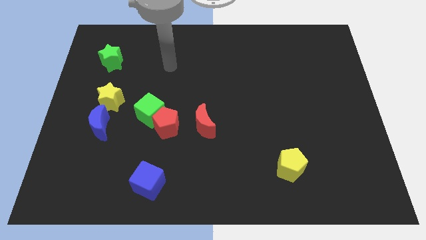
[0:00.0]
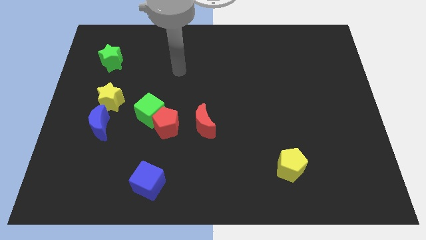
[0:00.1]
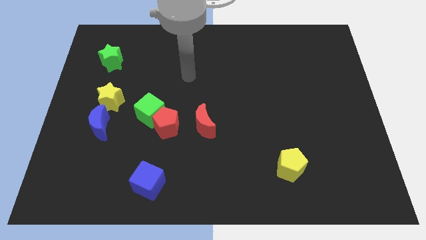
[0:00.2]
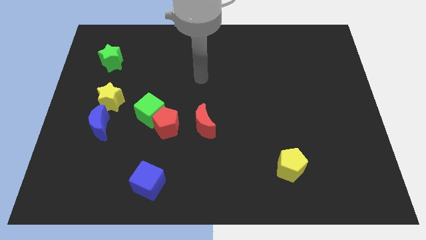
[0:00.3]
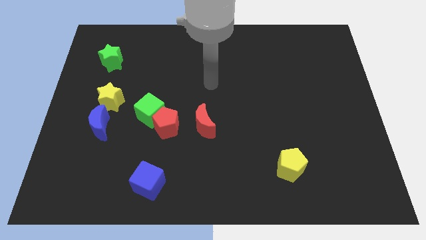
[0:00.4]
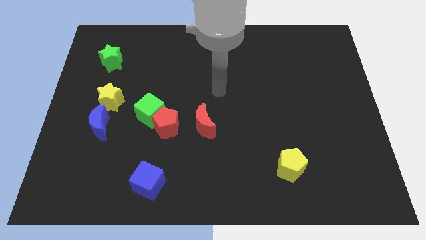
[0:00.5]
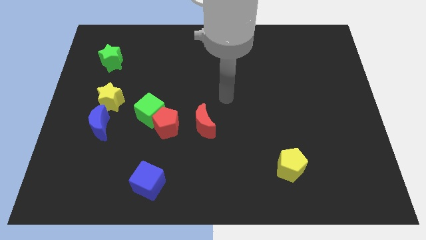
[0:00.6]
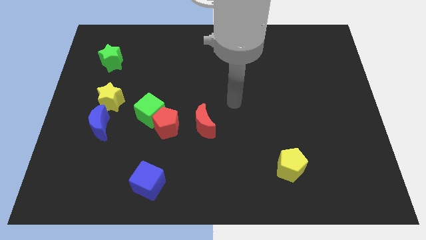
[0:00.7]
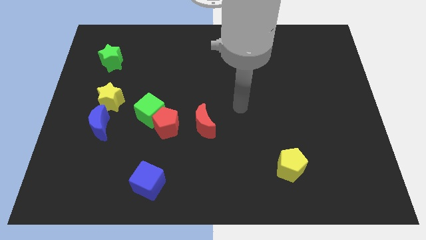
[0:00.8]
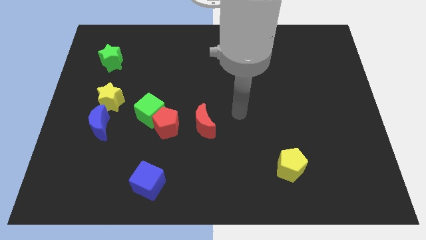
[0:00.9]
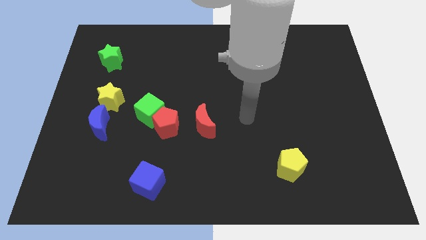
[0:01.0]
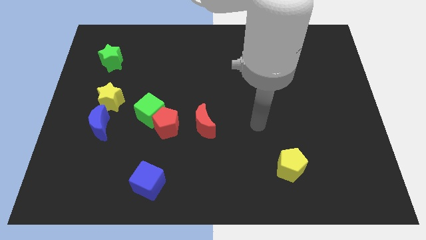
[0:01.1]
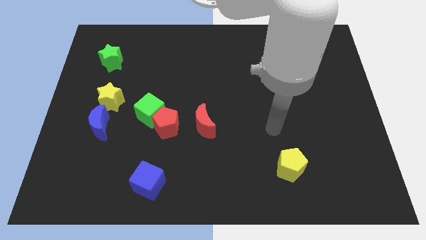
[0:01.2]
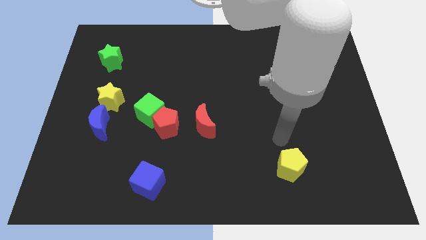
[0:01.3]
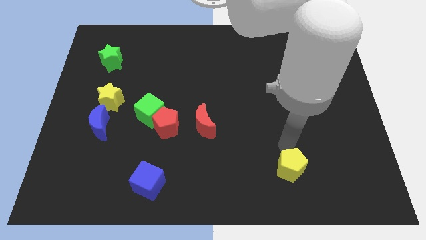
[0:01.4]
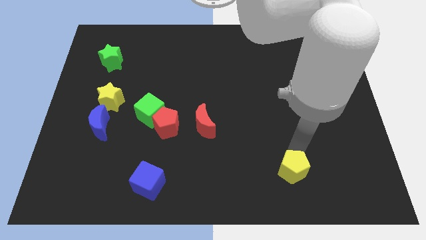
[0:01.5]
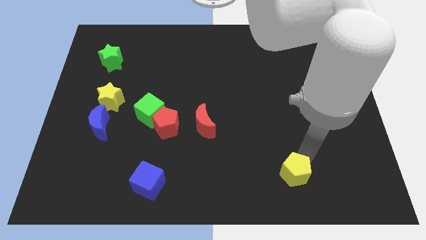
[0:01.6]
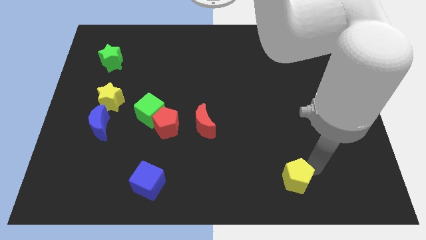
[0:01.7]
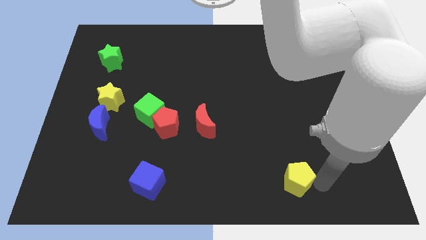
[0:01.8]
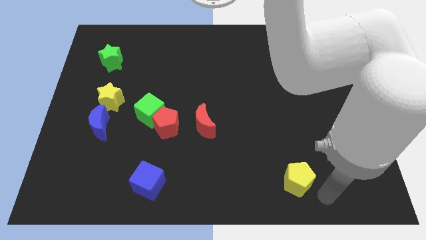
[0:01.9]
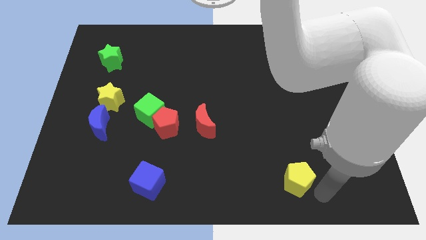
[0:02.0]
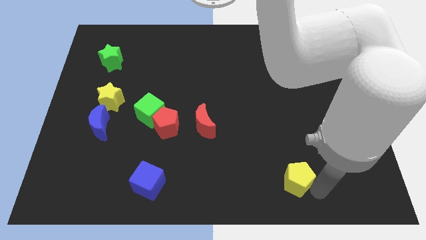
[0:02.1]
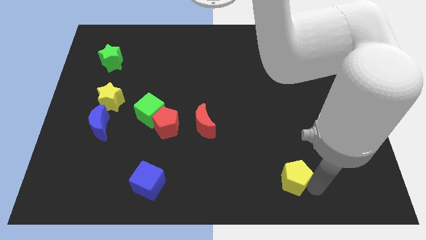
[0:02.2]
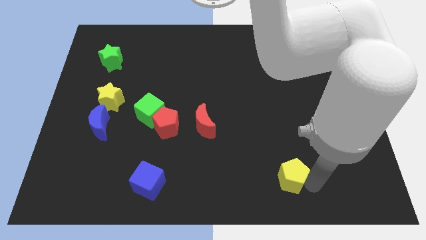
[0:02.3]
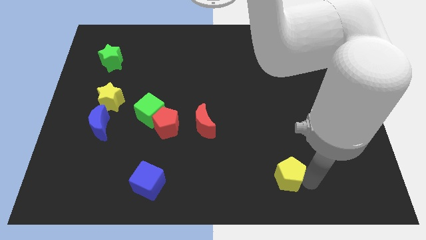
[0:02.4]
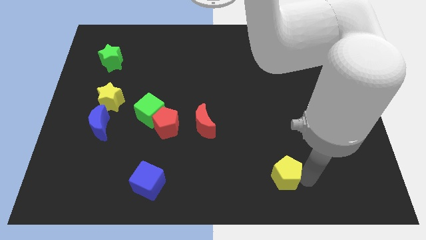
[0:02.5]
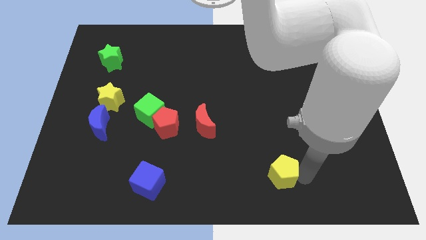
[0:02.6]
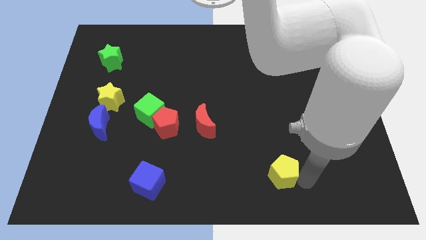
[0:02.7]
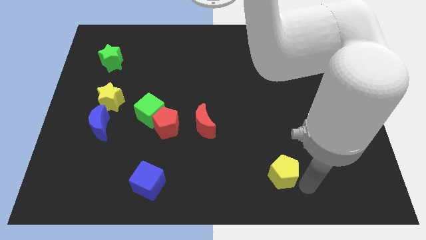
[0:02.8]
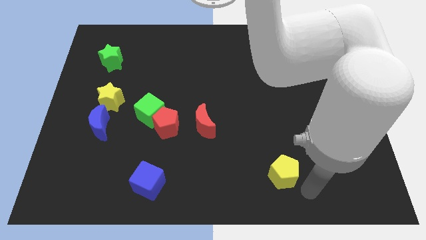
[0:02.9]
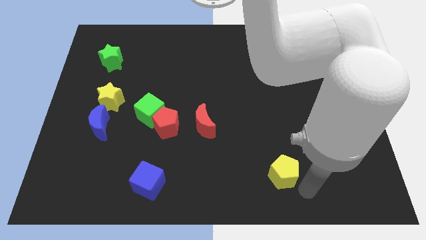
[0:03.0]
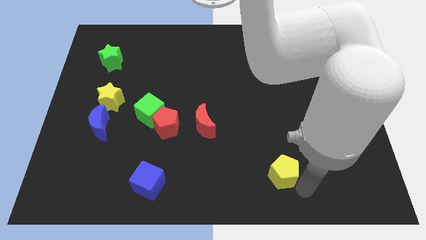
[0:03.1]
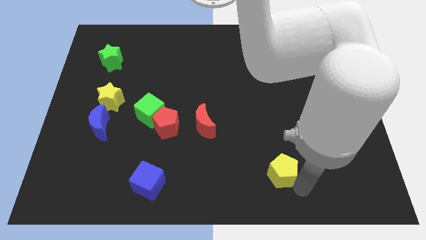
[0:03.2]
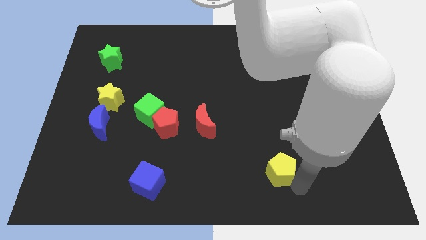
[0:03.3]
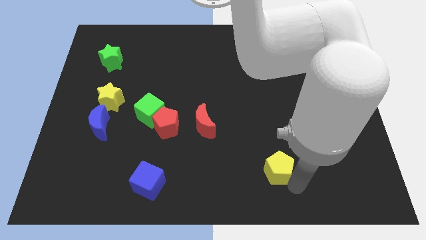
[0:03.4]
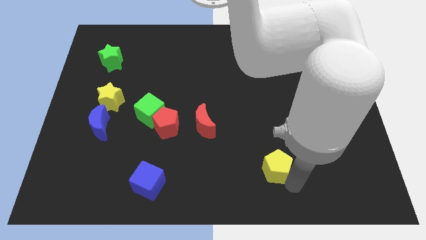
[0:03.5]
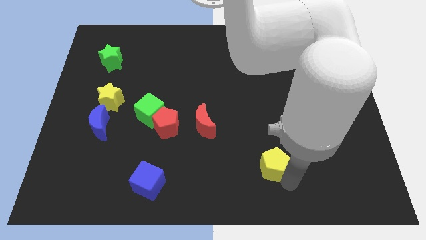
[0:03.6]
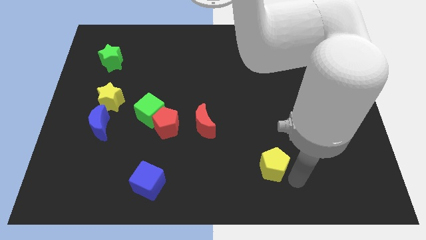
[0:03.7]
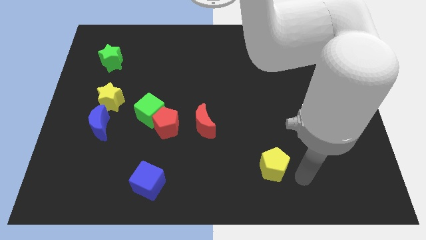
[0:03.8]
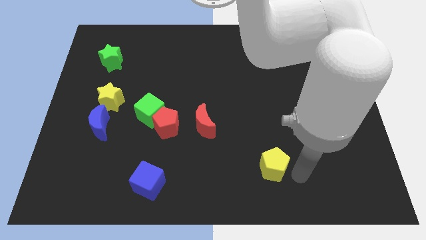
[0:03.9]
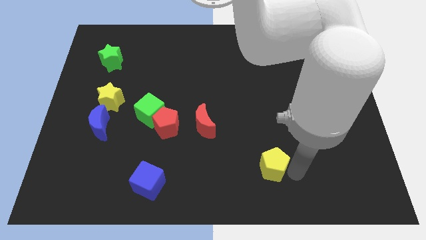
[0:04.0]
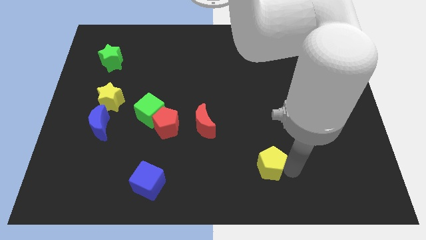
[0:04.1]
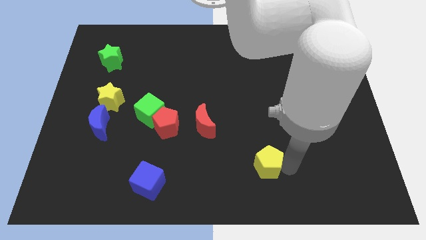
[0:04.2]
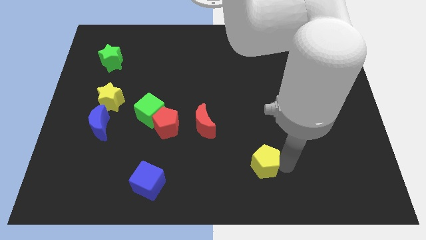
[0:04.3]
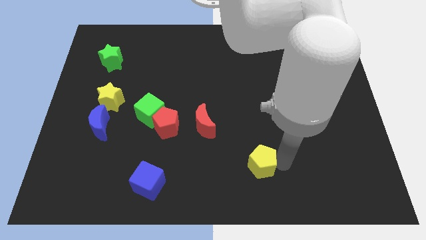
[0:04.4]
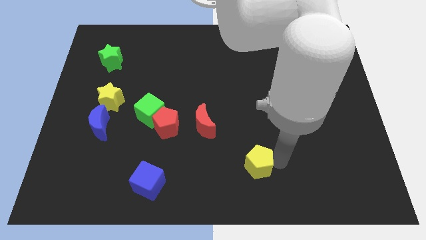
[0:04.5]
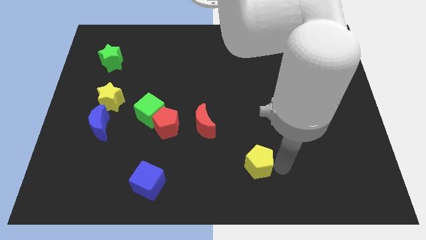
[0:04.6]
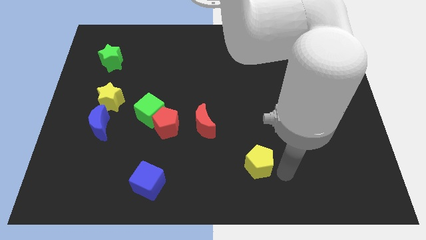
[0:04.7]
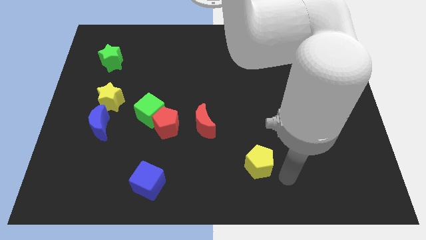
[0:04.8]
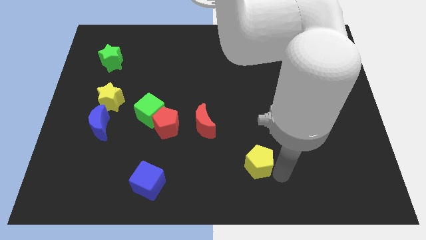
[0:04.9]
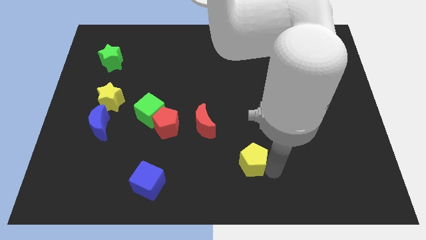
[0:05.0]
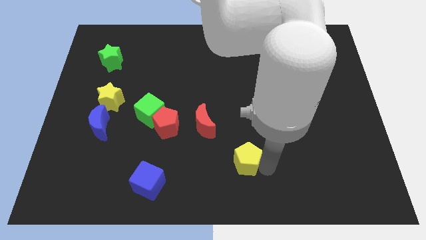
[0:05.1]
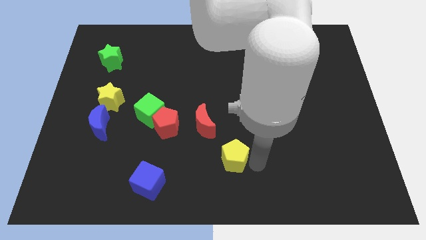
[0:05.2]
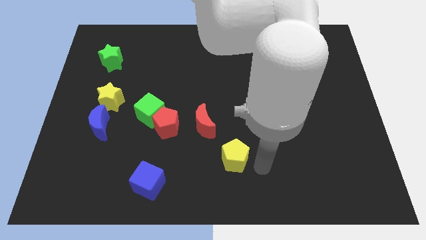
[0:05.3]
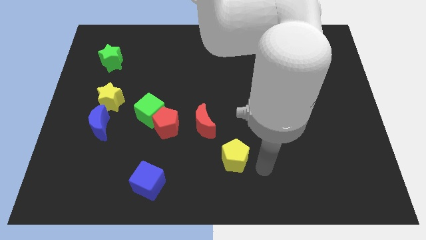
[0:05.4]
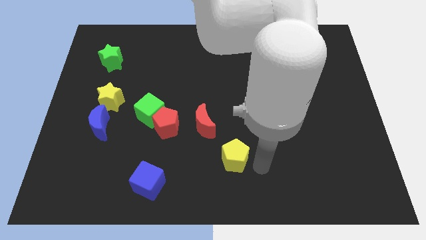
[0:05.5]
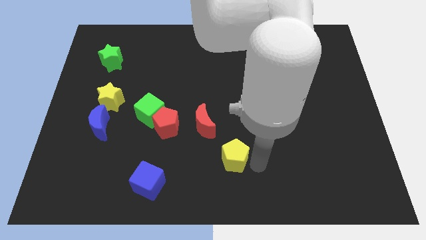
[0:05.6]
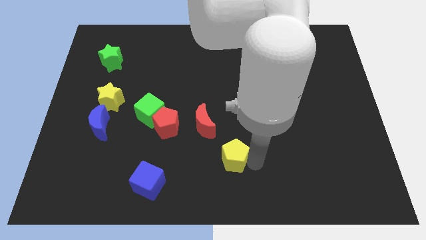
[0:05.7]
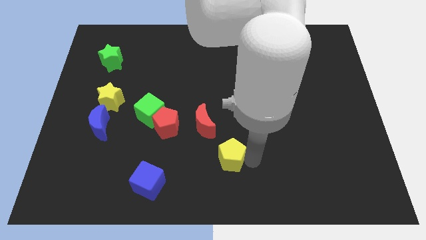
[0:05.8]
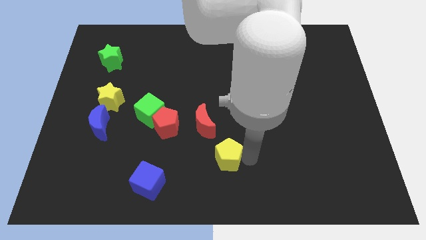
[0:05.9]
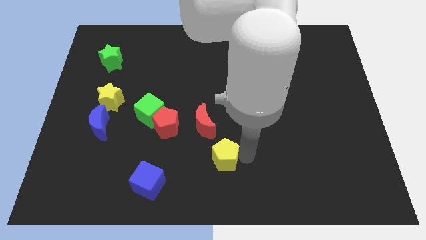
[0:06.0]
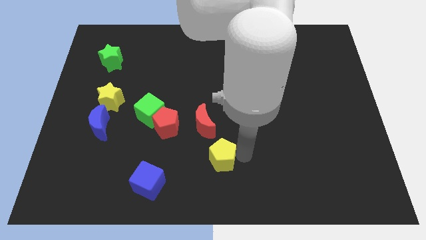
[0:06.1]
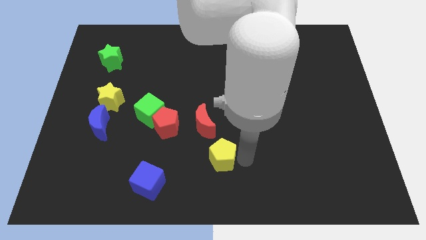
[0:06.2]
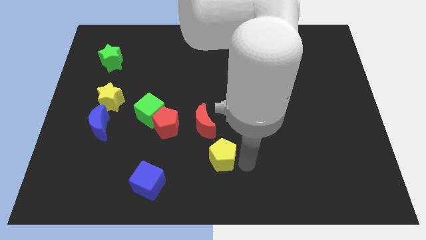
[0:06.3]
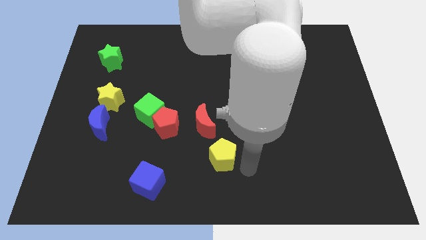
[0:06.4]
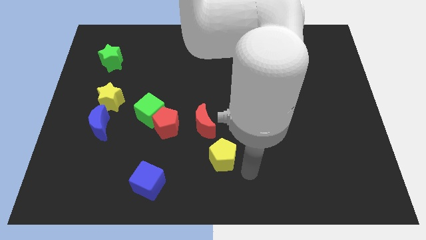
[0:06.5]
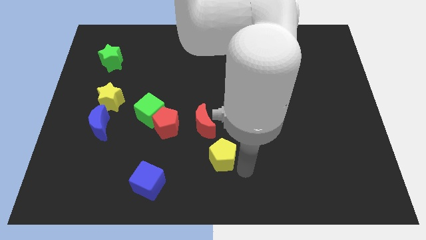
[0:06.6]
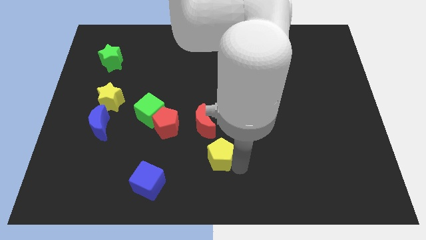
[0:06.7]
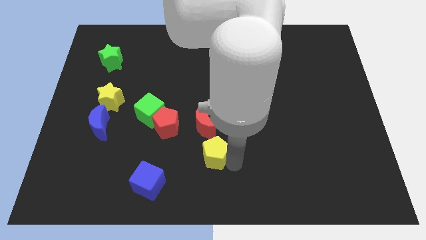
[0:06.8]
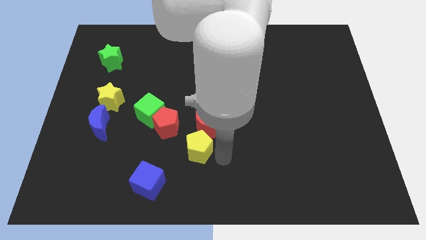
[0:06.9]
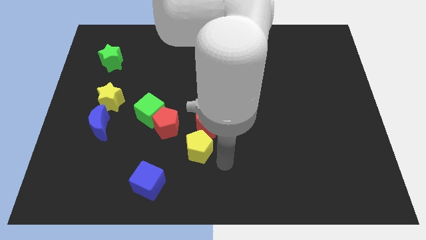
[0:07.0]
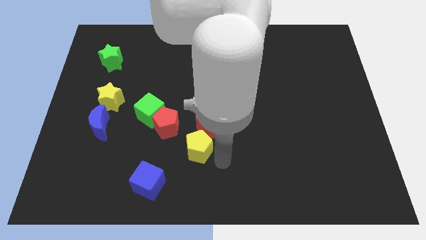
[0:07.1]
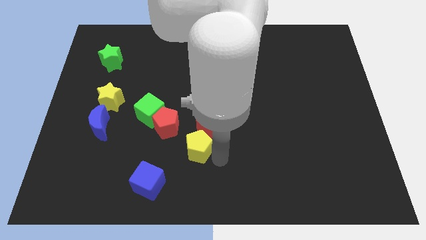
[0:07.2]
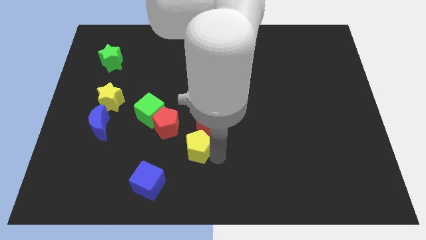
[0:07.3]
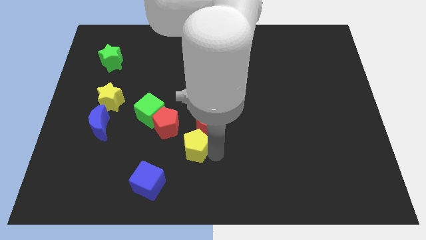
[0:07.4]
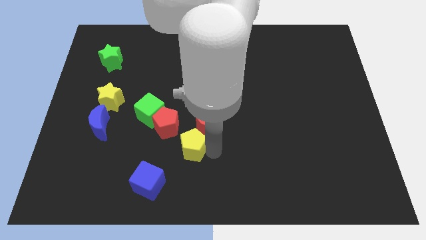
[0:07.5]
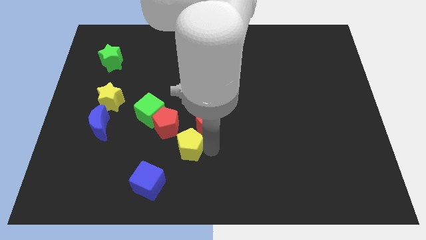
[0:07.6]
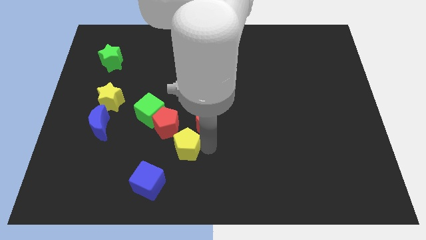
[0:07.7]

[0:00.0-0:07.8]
push the yellow pentagon to the bottom right side of the green cube
